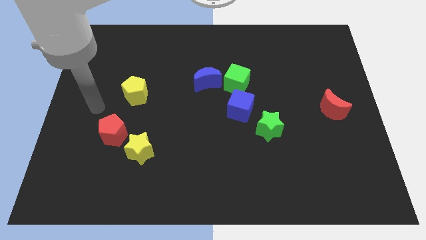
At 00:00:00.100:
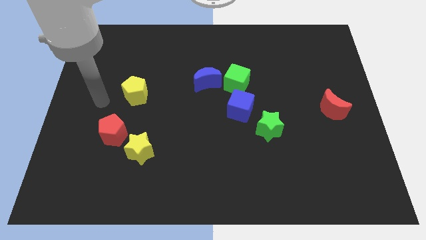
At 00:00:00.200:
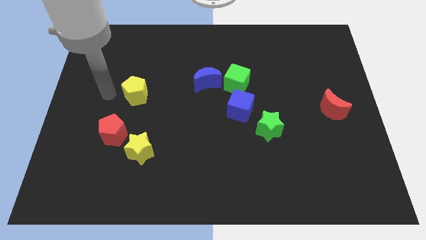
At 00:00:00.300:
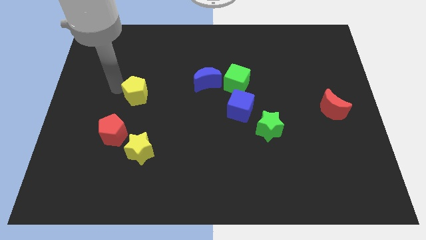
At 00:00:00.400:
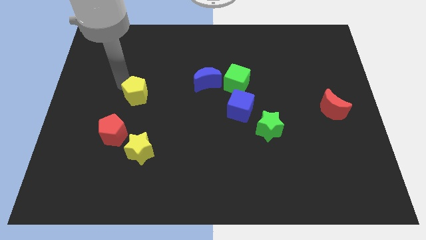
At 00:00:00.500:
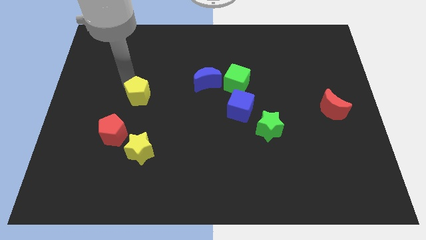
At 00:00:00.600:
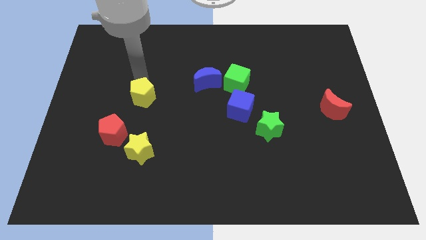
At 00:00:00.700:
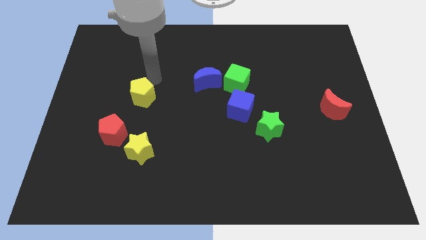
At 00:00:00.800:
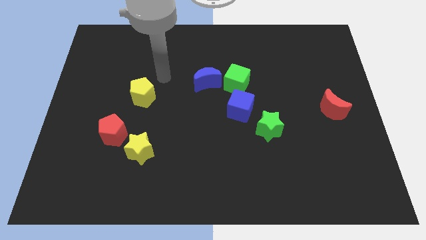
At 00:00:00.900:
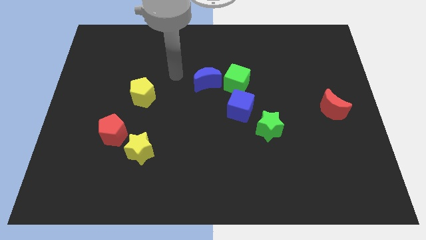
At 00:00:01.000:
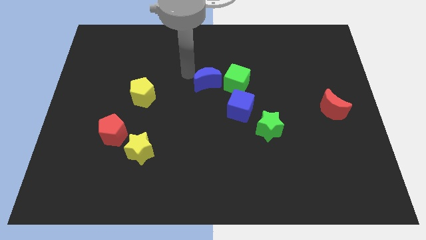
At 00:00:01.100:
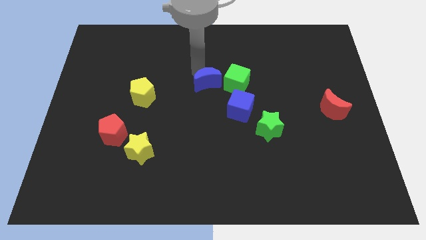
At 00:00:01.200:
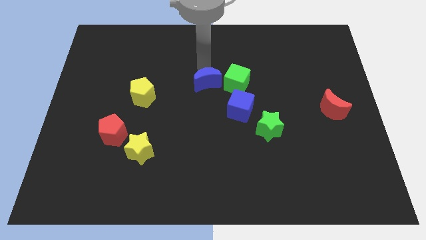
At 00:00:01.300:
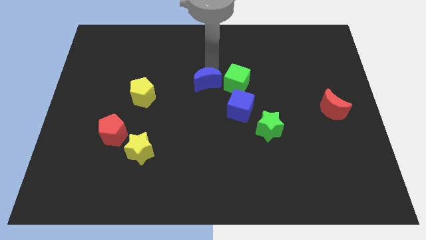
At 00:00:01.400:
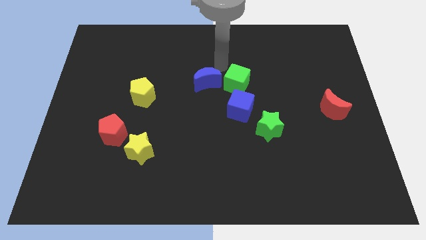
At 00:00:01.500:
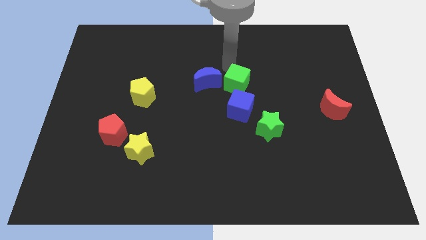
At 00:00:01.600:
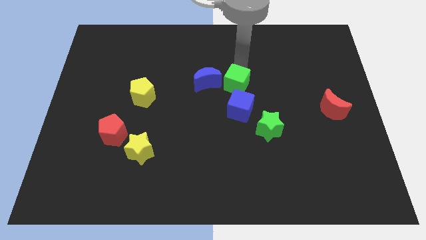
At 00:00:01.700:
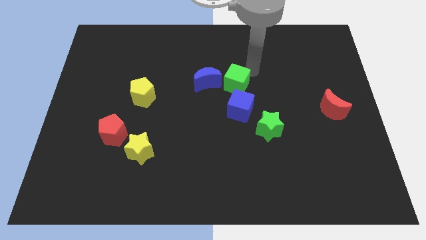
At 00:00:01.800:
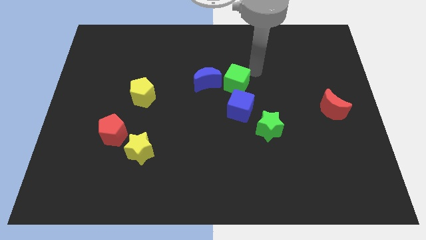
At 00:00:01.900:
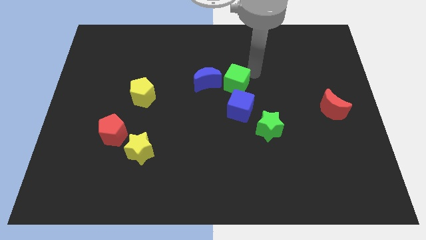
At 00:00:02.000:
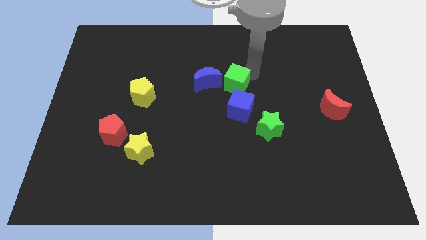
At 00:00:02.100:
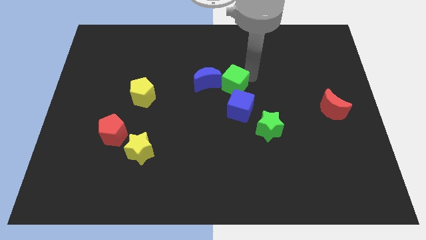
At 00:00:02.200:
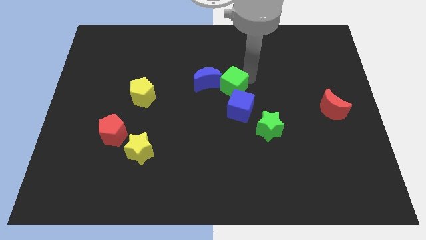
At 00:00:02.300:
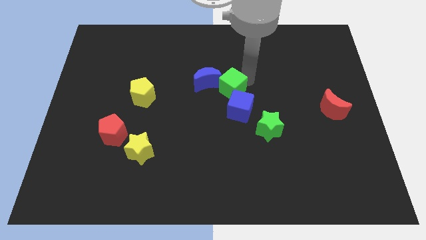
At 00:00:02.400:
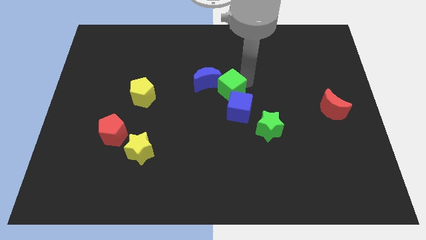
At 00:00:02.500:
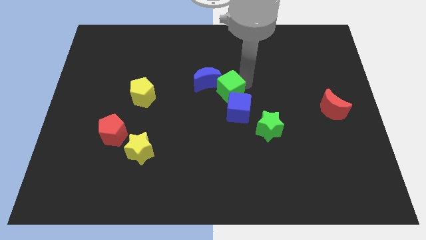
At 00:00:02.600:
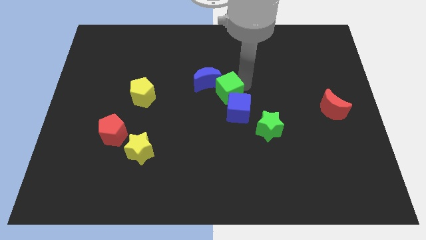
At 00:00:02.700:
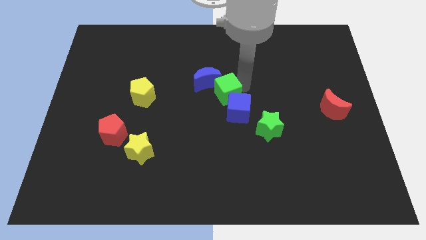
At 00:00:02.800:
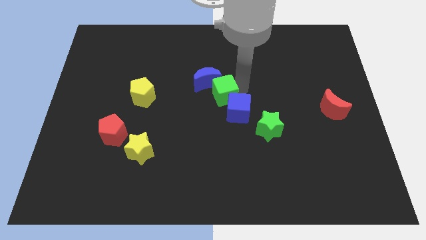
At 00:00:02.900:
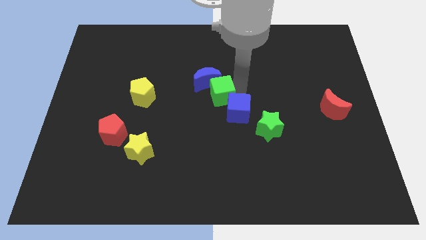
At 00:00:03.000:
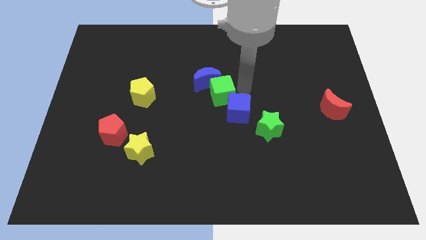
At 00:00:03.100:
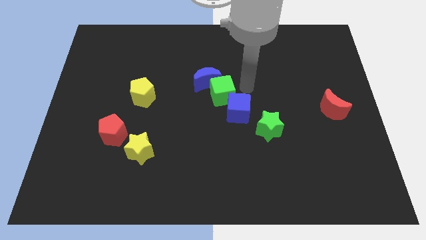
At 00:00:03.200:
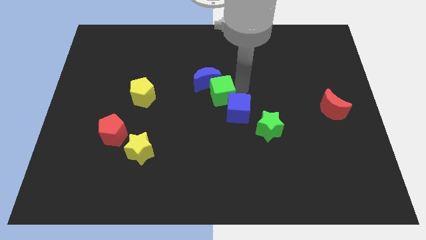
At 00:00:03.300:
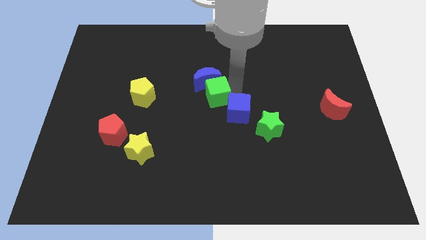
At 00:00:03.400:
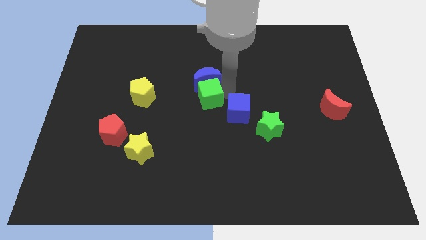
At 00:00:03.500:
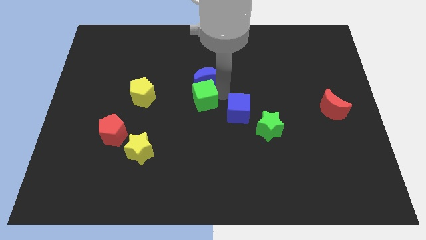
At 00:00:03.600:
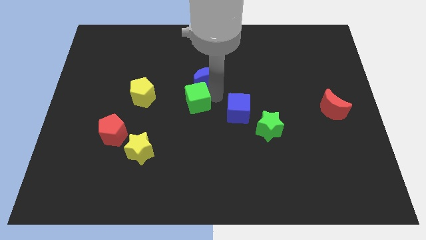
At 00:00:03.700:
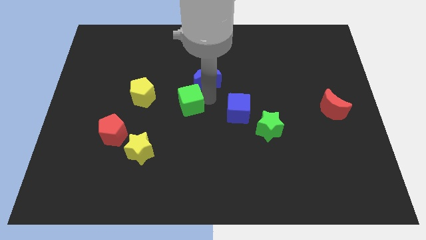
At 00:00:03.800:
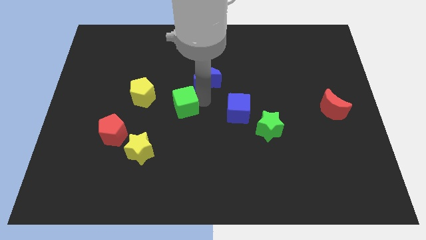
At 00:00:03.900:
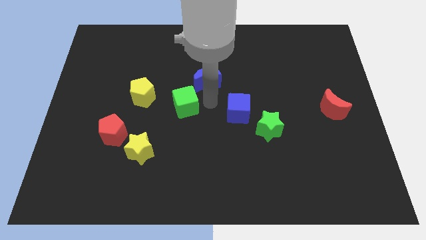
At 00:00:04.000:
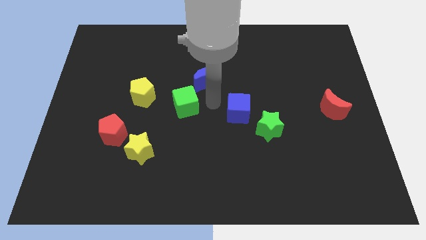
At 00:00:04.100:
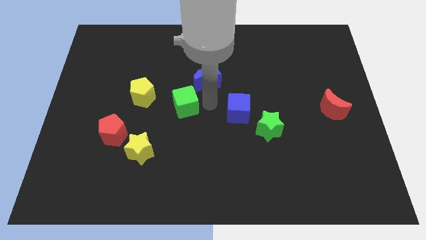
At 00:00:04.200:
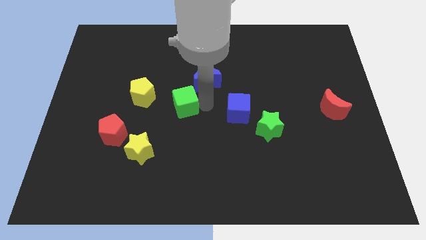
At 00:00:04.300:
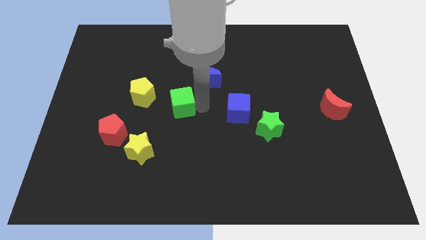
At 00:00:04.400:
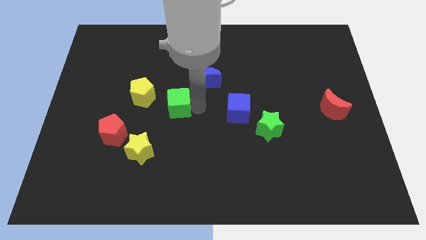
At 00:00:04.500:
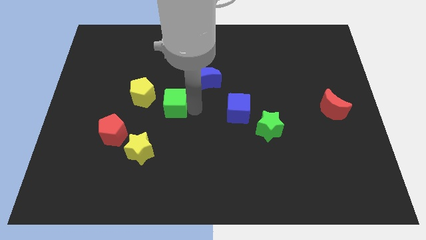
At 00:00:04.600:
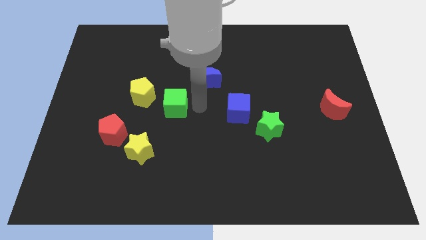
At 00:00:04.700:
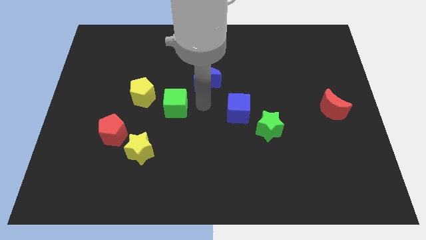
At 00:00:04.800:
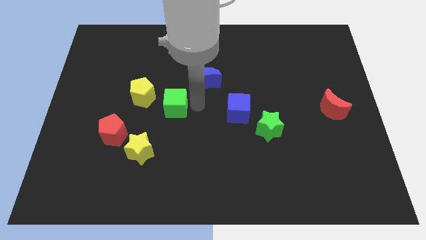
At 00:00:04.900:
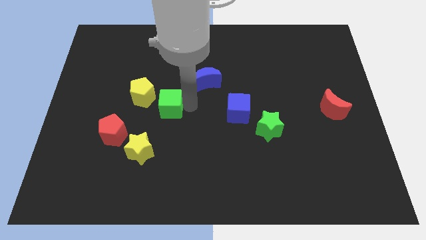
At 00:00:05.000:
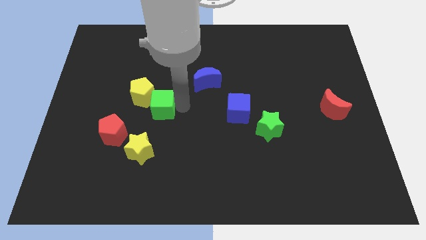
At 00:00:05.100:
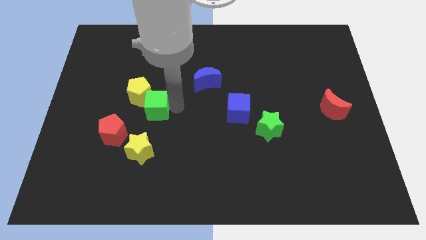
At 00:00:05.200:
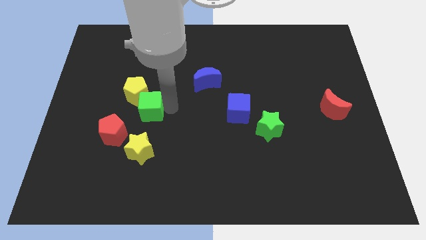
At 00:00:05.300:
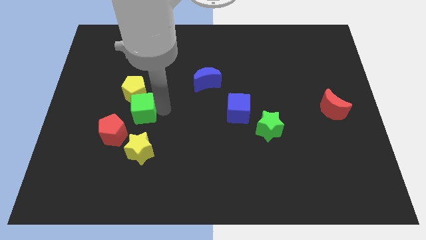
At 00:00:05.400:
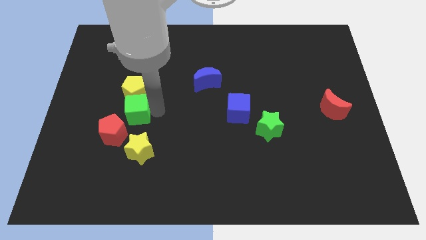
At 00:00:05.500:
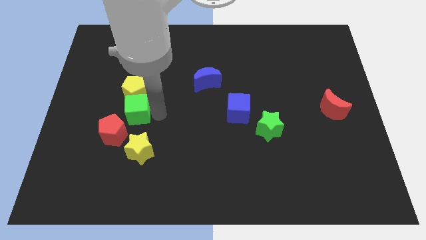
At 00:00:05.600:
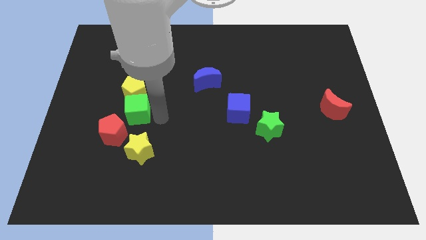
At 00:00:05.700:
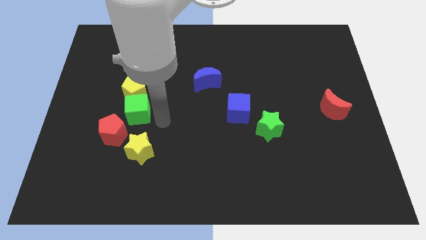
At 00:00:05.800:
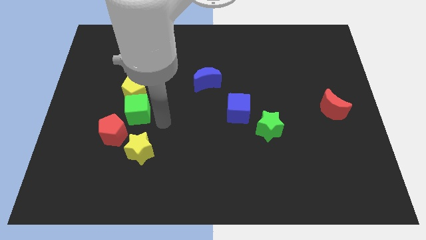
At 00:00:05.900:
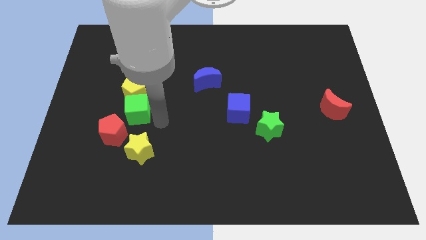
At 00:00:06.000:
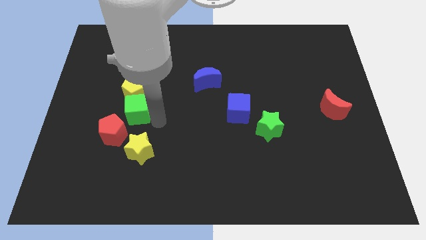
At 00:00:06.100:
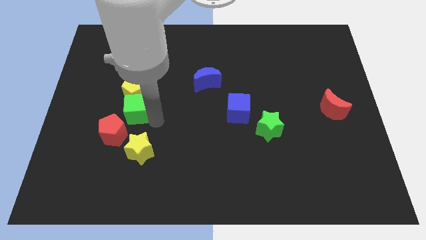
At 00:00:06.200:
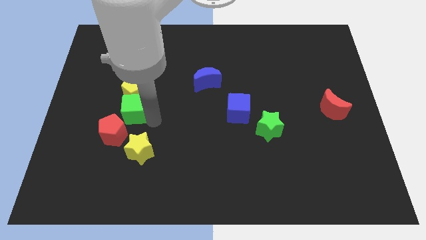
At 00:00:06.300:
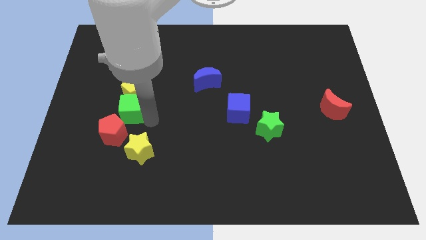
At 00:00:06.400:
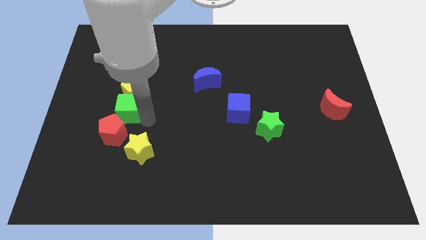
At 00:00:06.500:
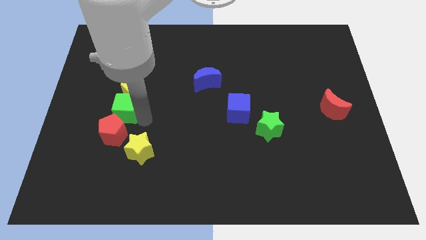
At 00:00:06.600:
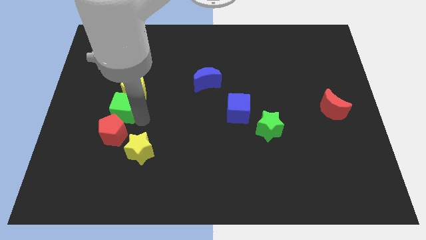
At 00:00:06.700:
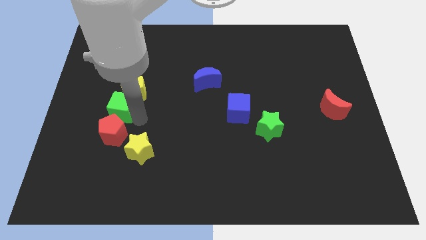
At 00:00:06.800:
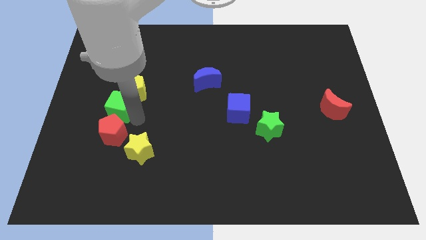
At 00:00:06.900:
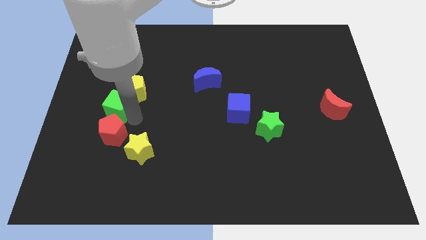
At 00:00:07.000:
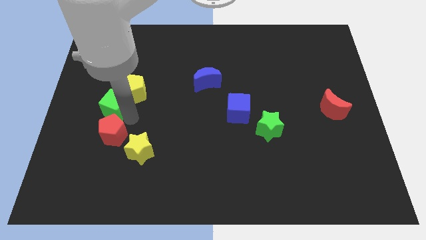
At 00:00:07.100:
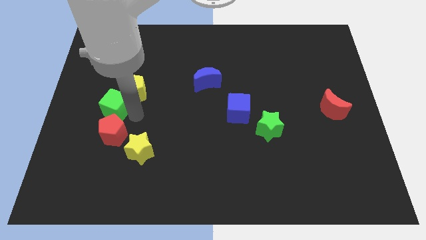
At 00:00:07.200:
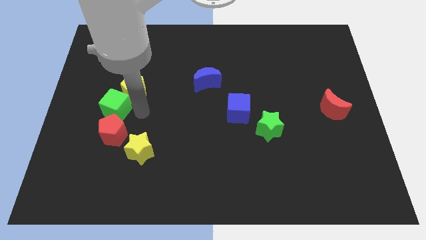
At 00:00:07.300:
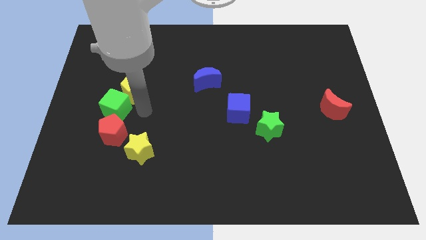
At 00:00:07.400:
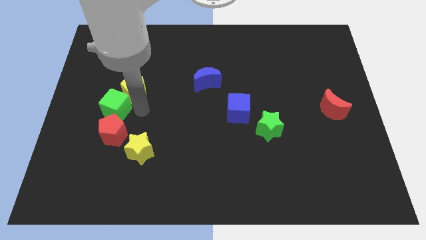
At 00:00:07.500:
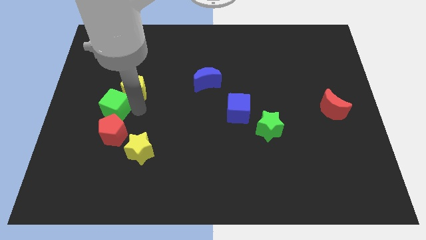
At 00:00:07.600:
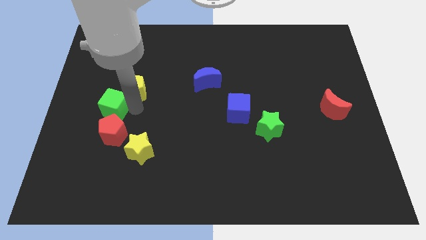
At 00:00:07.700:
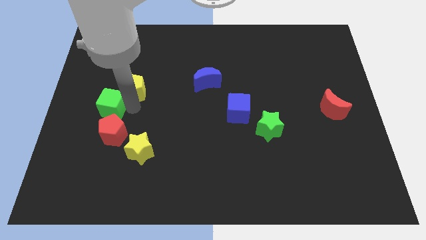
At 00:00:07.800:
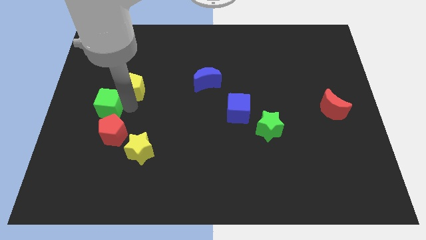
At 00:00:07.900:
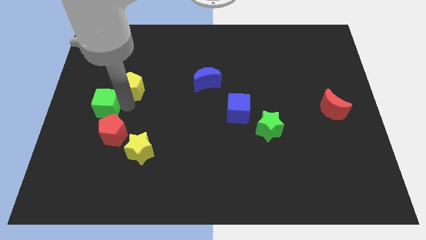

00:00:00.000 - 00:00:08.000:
slide the green cube to the left side of the board
